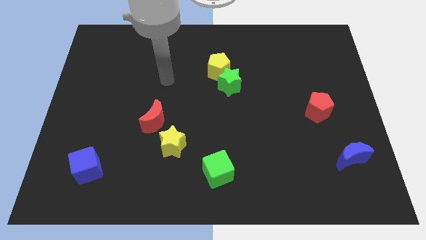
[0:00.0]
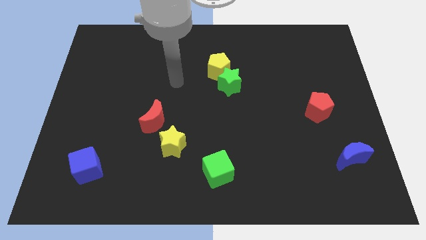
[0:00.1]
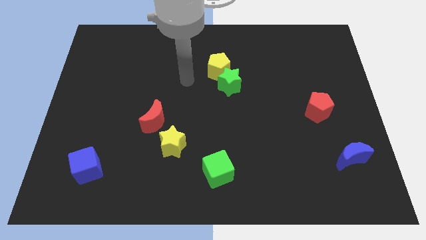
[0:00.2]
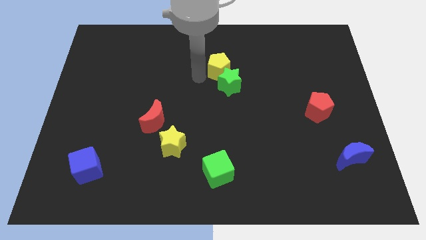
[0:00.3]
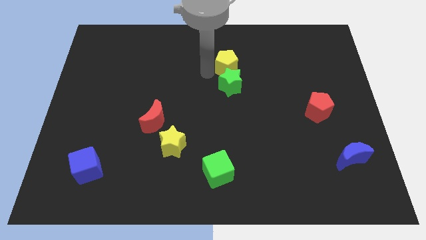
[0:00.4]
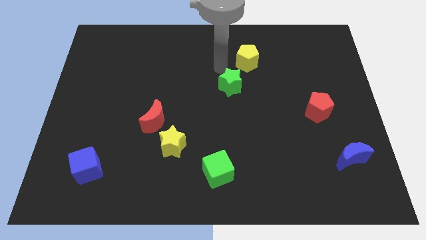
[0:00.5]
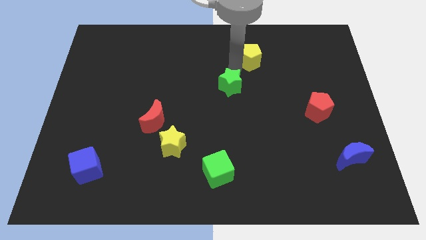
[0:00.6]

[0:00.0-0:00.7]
separate the green star from the yellow pentagon

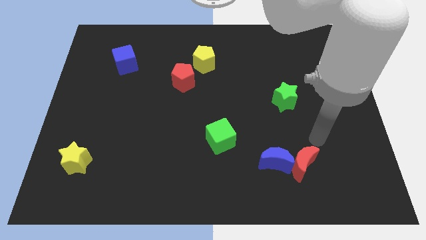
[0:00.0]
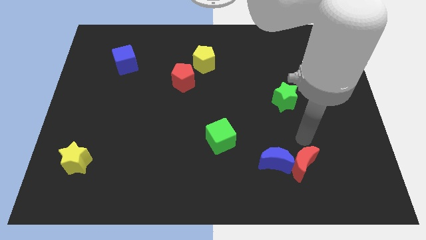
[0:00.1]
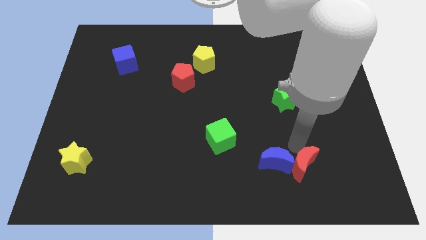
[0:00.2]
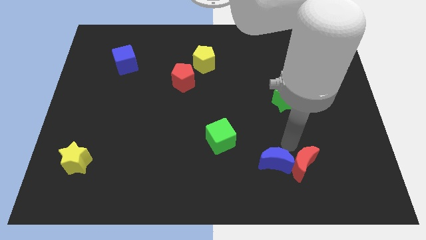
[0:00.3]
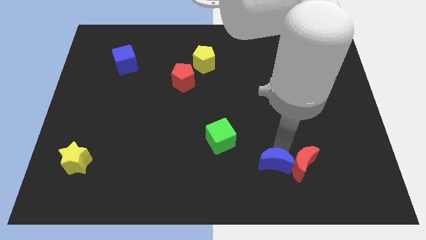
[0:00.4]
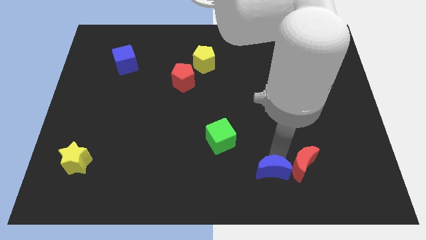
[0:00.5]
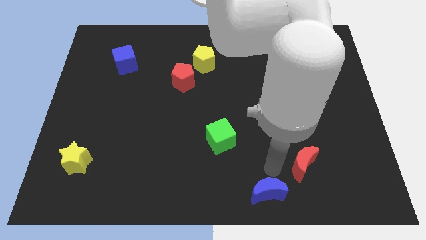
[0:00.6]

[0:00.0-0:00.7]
separate the red moon from the blue moon

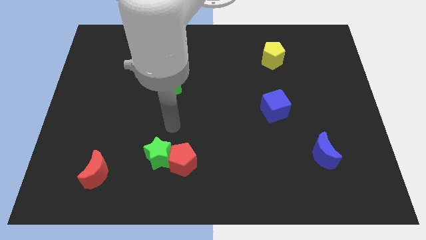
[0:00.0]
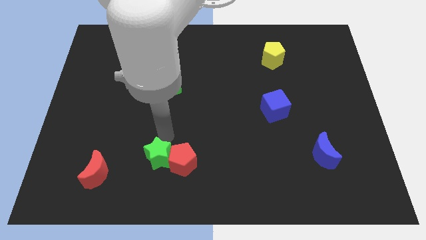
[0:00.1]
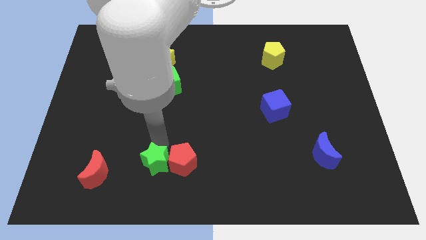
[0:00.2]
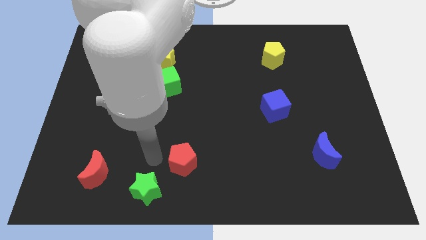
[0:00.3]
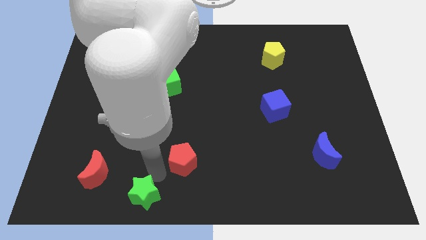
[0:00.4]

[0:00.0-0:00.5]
separate the red pentagon from the green star

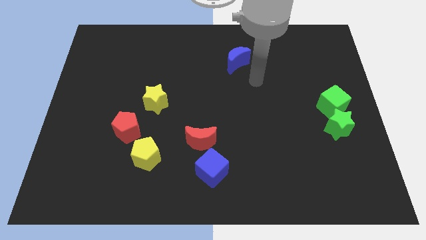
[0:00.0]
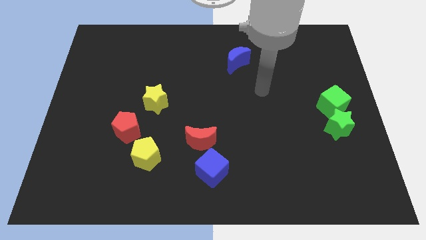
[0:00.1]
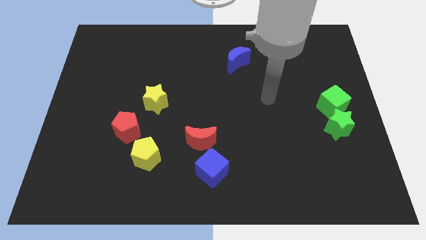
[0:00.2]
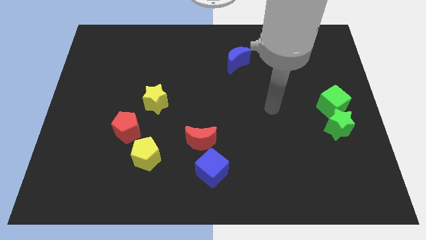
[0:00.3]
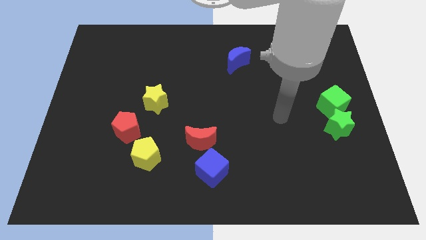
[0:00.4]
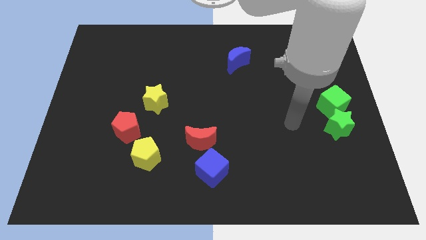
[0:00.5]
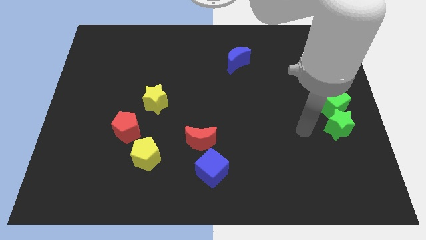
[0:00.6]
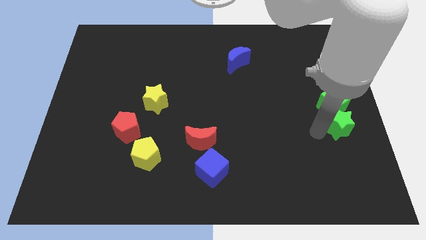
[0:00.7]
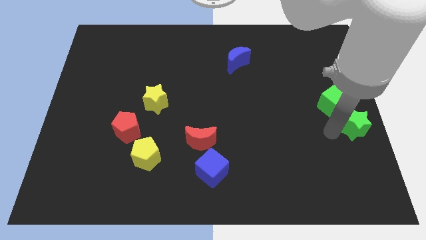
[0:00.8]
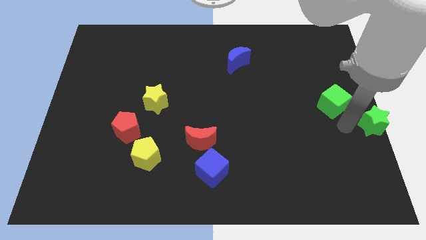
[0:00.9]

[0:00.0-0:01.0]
move the green cube away from the green star

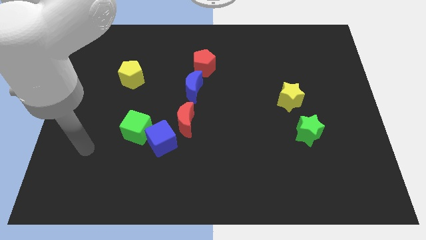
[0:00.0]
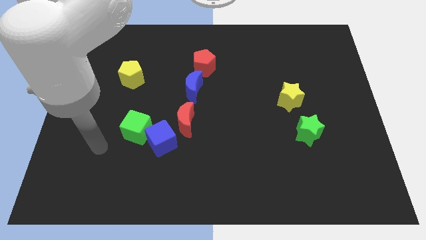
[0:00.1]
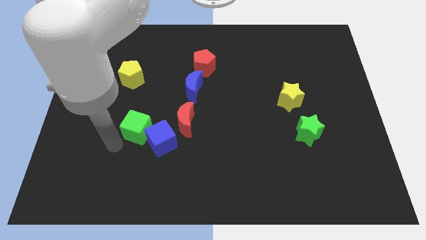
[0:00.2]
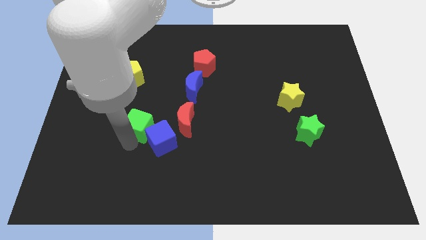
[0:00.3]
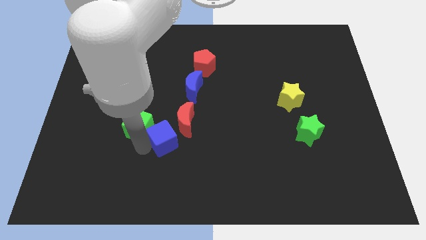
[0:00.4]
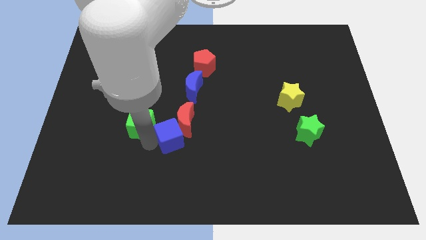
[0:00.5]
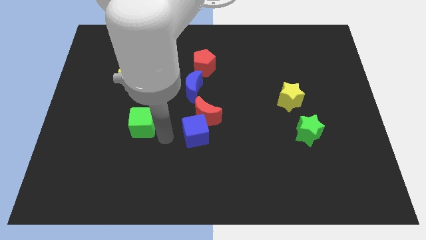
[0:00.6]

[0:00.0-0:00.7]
pull the green cube apart from the blue cube

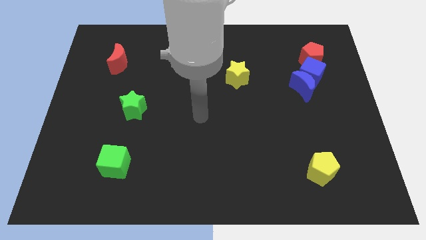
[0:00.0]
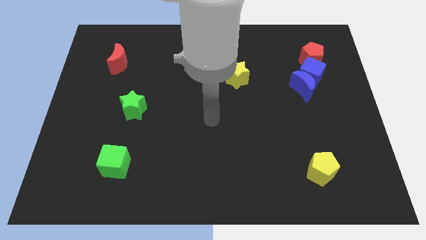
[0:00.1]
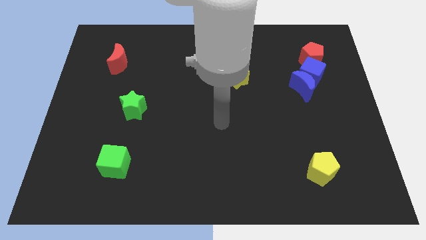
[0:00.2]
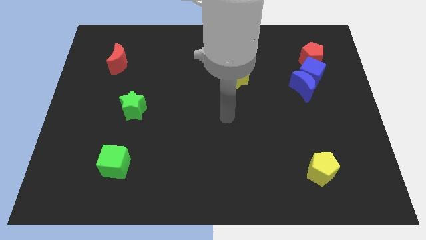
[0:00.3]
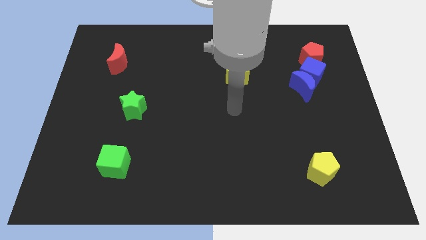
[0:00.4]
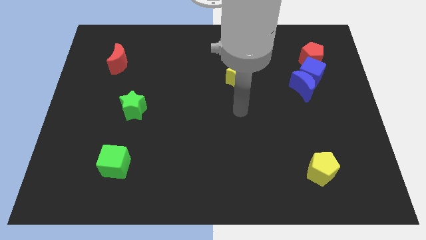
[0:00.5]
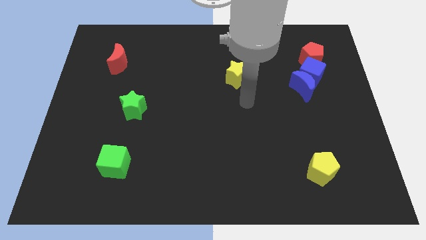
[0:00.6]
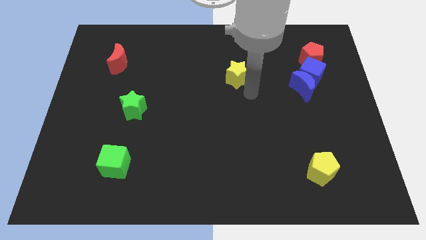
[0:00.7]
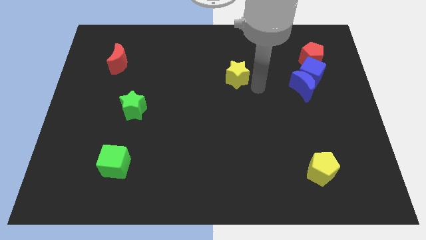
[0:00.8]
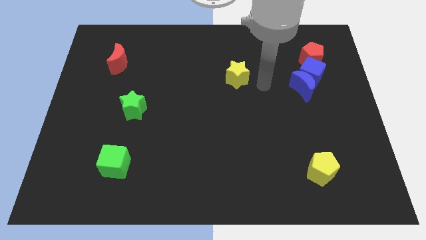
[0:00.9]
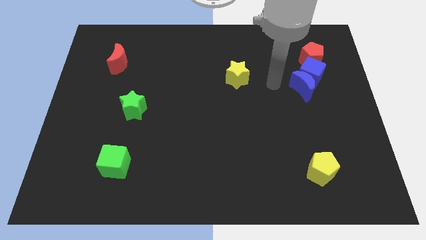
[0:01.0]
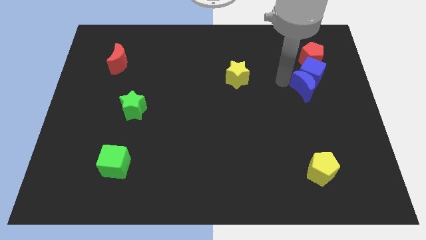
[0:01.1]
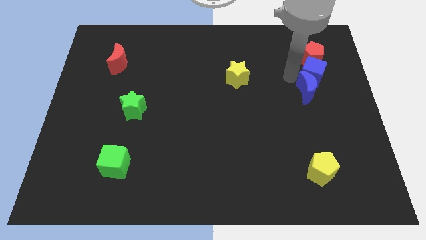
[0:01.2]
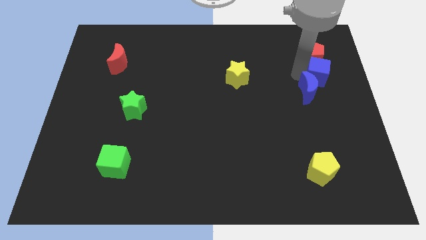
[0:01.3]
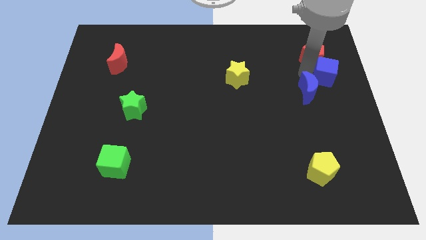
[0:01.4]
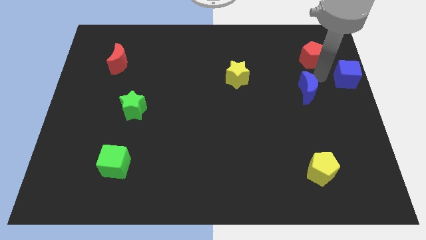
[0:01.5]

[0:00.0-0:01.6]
separate the blue moon from the blue cube

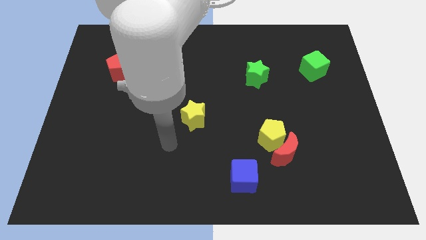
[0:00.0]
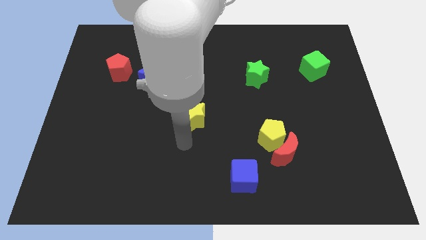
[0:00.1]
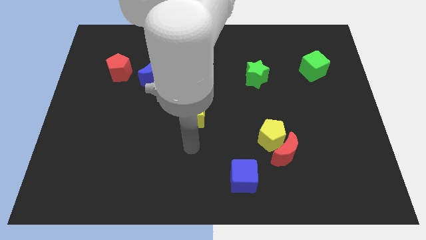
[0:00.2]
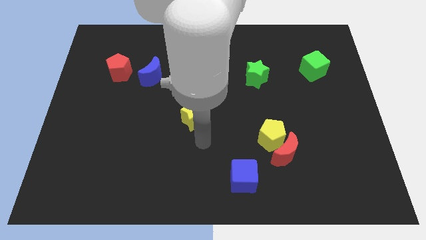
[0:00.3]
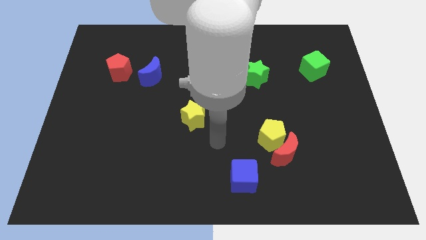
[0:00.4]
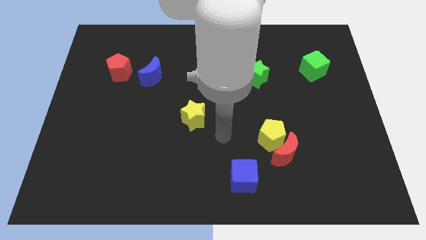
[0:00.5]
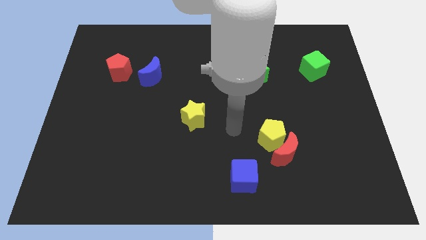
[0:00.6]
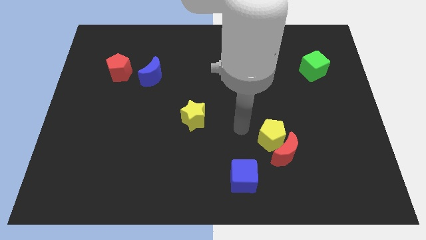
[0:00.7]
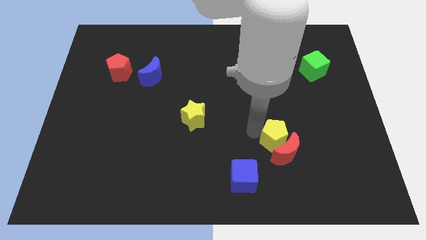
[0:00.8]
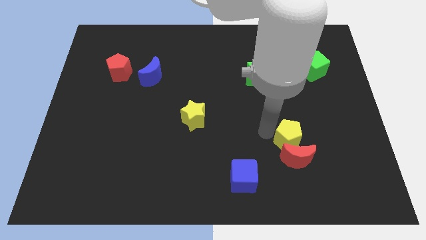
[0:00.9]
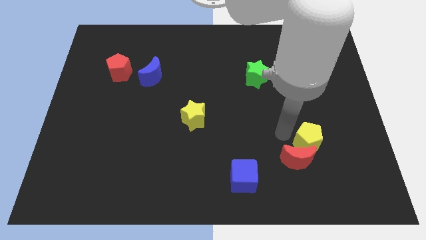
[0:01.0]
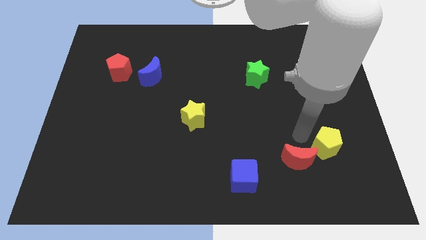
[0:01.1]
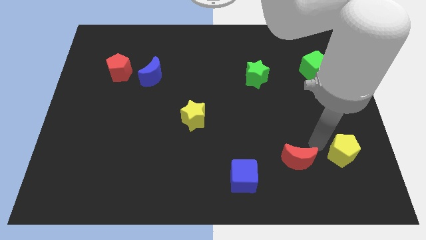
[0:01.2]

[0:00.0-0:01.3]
move the red moon away from the yellow pentagon

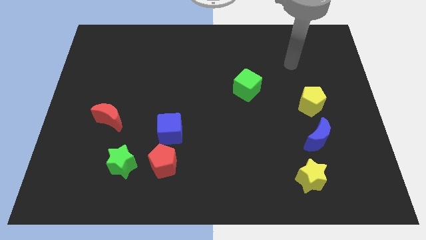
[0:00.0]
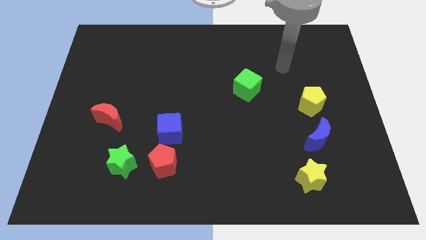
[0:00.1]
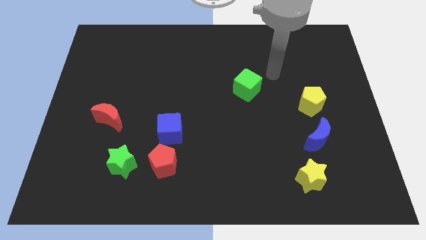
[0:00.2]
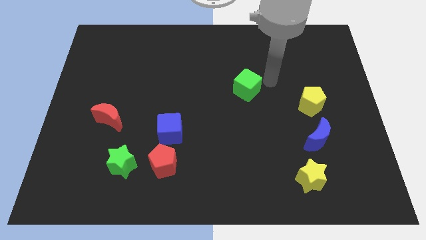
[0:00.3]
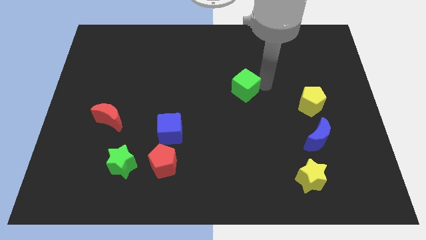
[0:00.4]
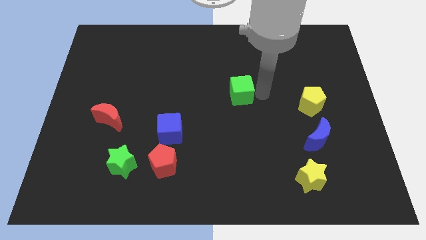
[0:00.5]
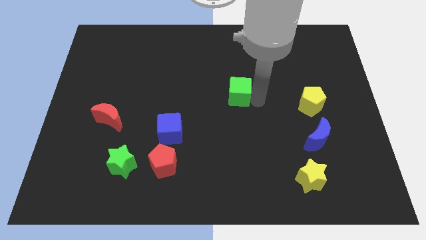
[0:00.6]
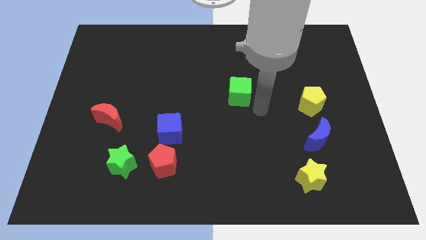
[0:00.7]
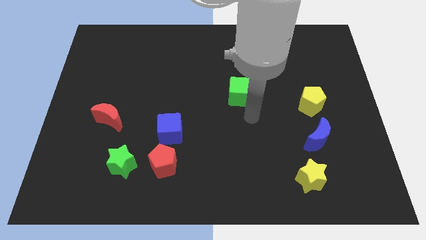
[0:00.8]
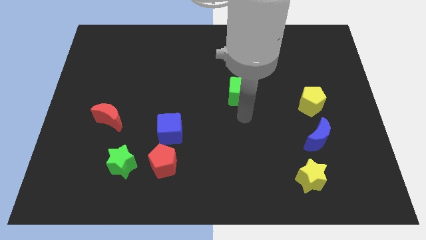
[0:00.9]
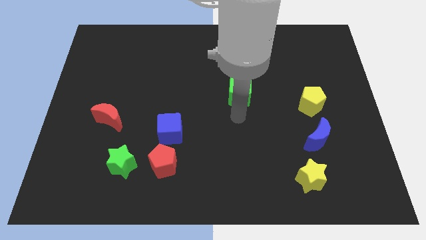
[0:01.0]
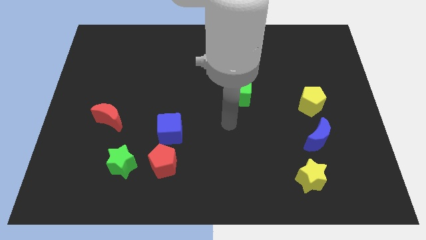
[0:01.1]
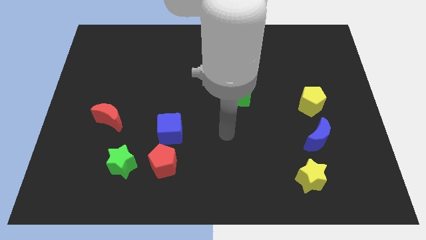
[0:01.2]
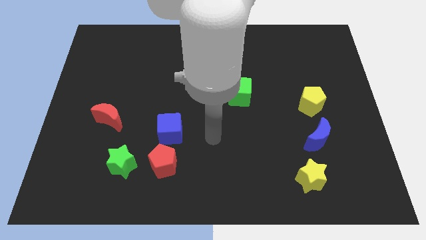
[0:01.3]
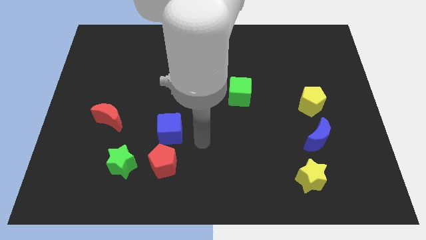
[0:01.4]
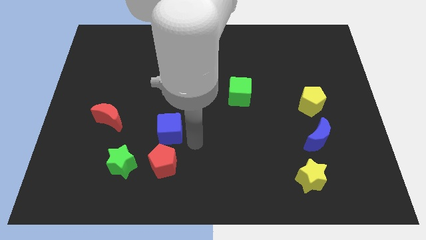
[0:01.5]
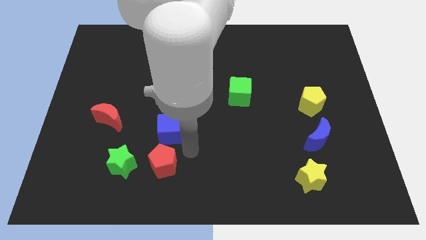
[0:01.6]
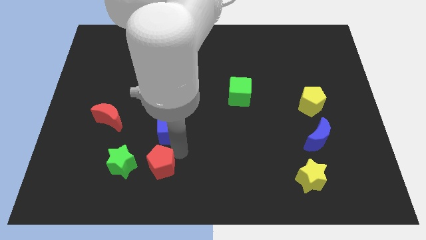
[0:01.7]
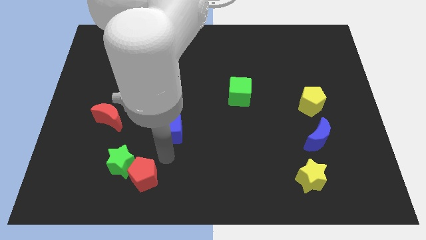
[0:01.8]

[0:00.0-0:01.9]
move the blue cube away from the red pentagon

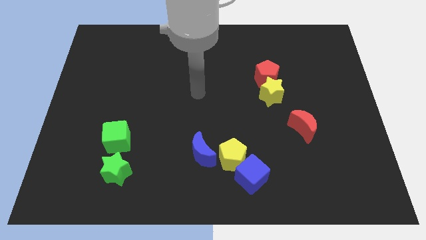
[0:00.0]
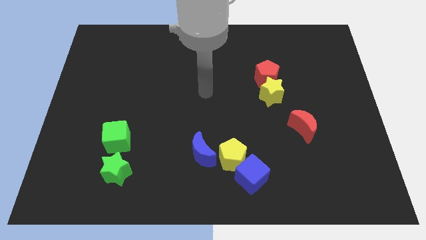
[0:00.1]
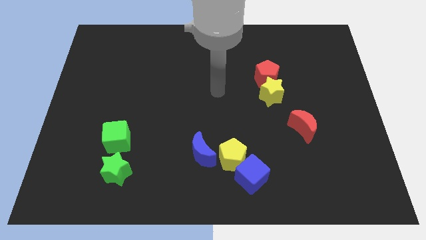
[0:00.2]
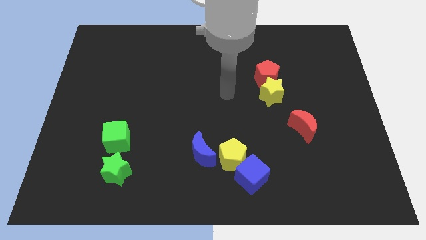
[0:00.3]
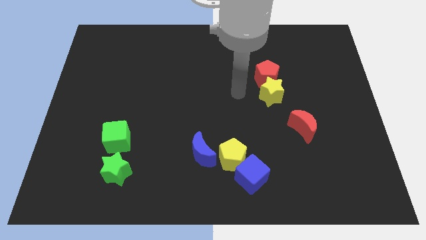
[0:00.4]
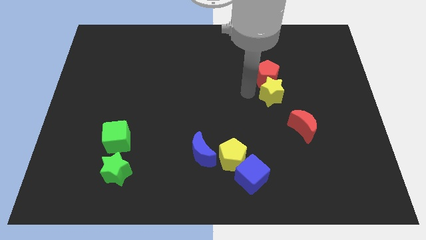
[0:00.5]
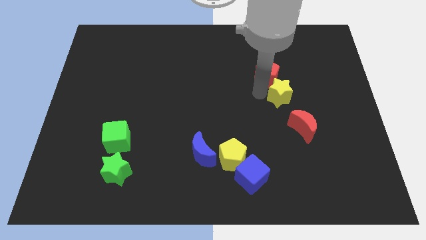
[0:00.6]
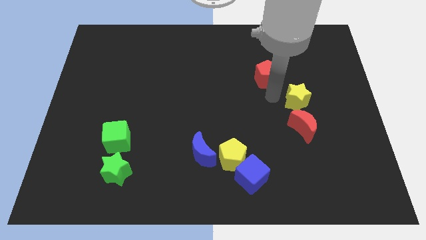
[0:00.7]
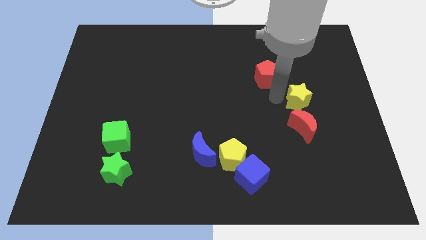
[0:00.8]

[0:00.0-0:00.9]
separate the red pentagon from the yellow star
